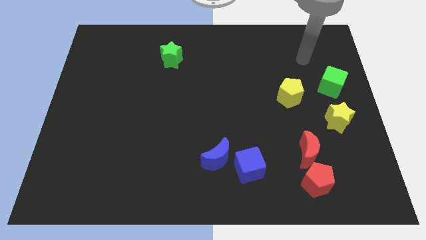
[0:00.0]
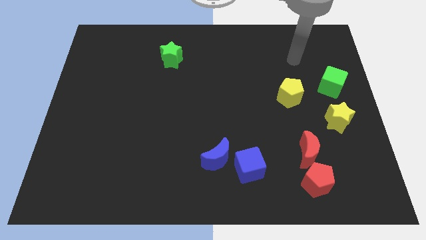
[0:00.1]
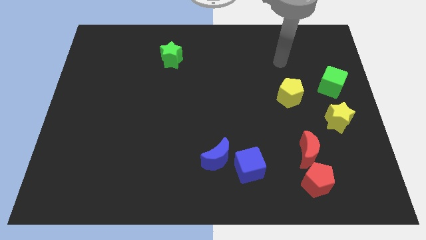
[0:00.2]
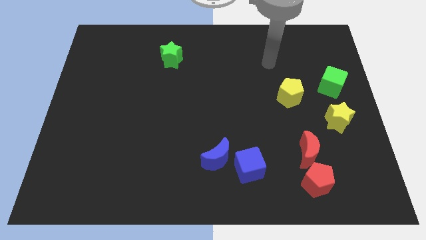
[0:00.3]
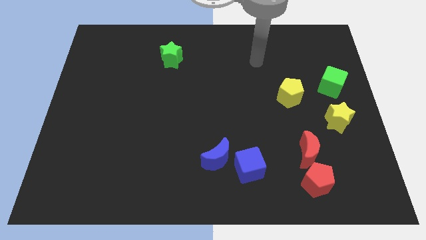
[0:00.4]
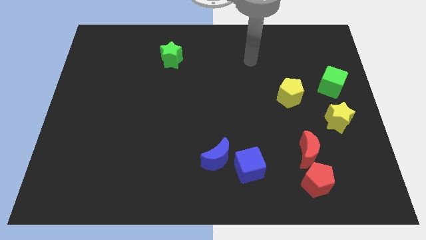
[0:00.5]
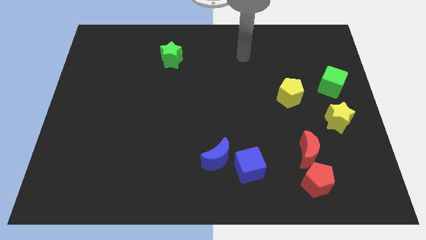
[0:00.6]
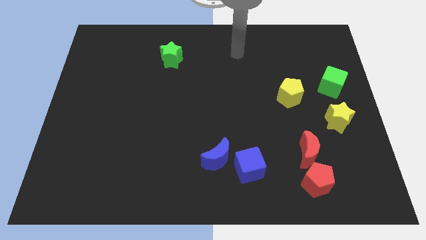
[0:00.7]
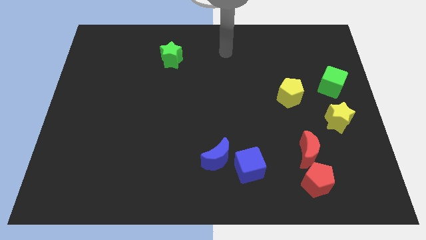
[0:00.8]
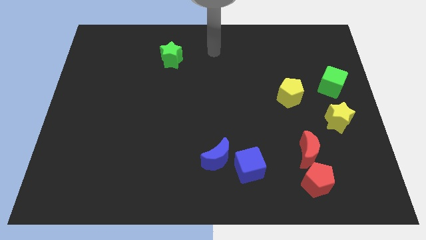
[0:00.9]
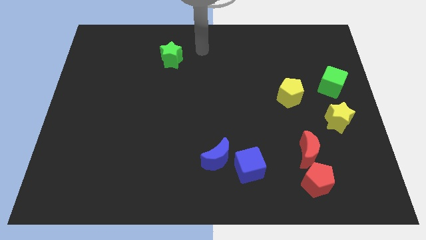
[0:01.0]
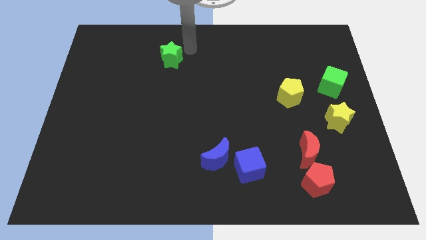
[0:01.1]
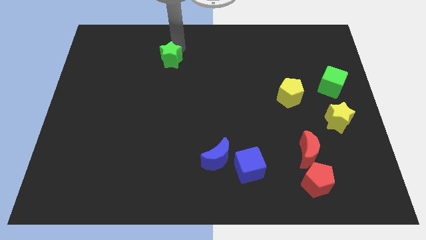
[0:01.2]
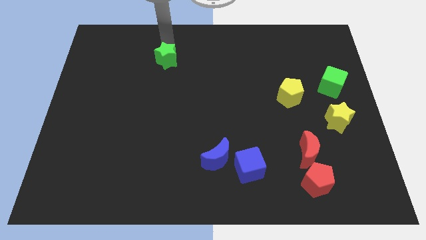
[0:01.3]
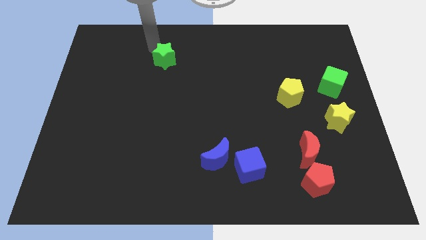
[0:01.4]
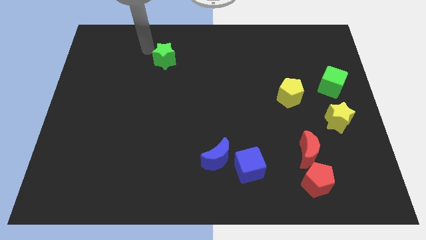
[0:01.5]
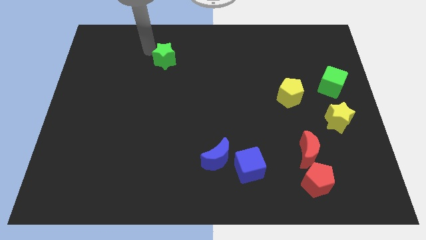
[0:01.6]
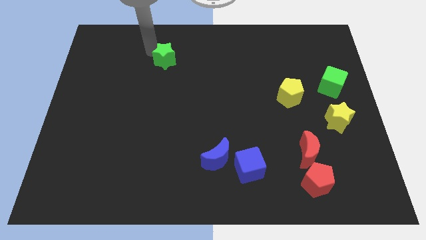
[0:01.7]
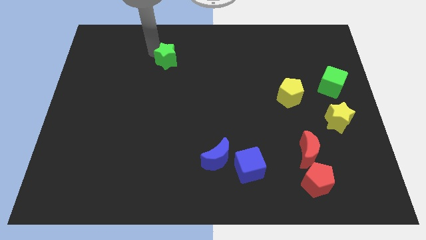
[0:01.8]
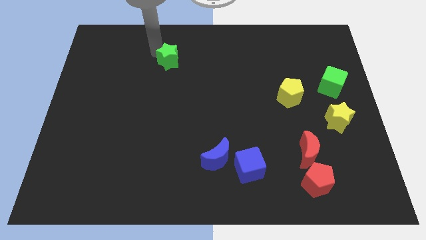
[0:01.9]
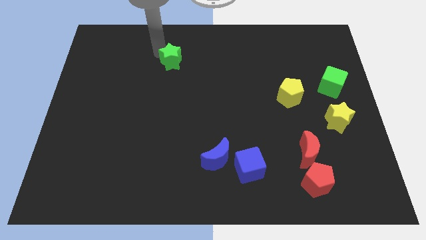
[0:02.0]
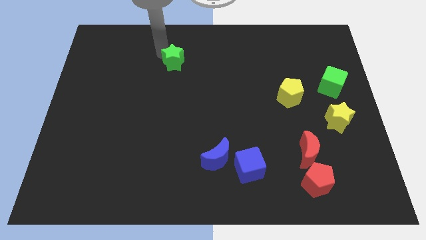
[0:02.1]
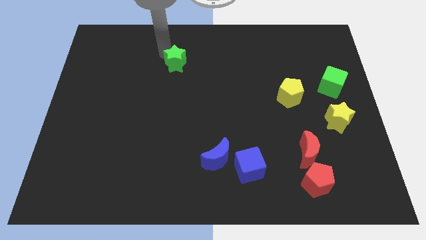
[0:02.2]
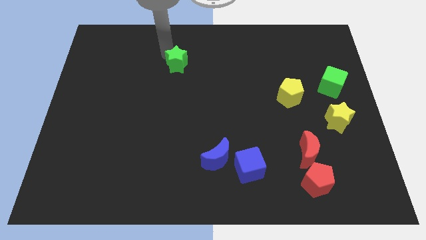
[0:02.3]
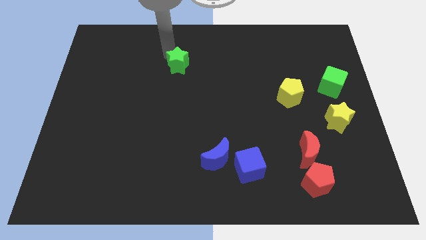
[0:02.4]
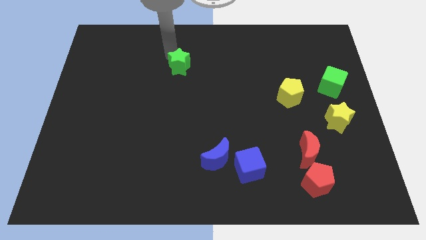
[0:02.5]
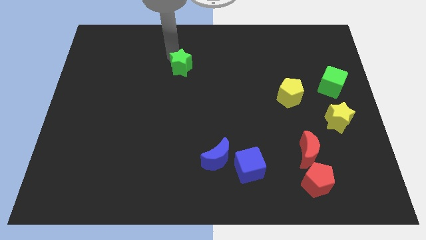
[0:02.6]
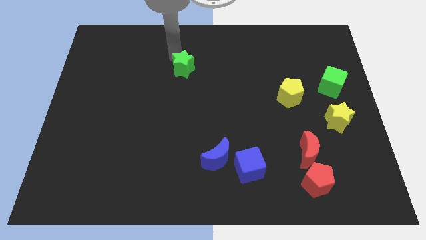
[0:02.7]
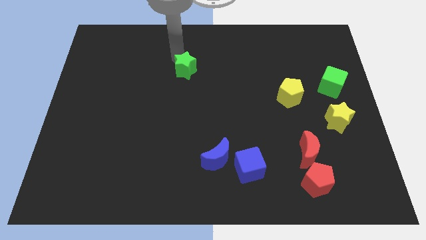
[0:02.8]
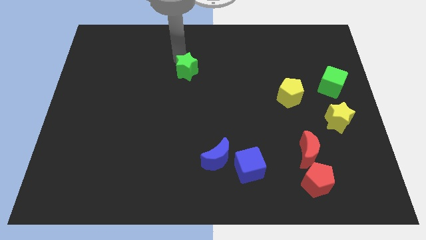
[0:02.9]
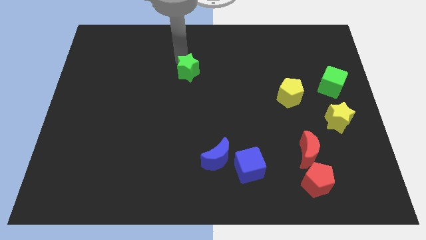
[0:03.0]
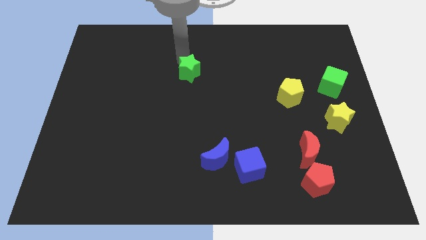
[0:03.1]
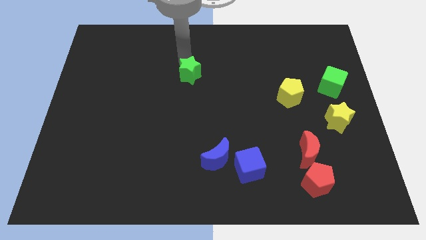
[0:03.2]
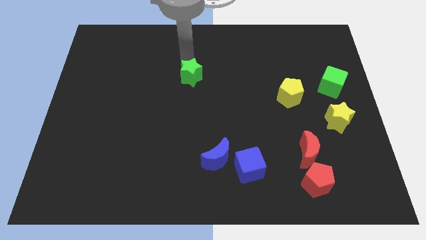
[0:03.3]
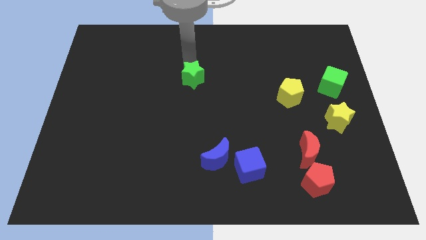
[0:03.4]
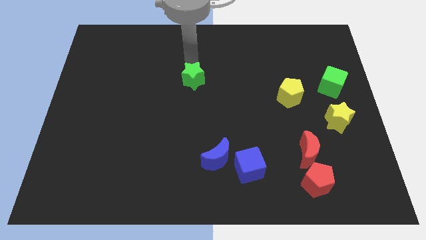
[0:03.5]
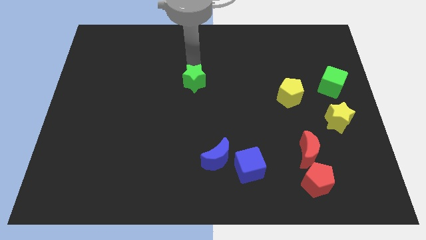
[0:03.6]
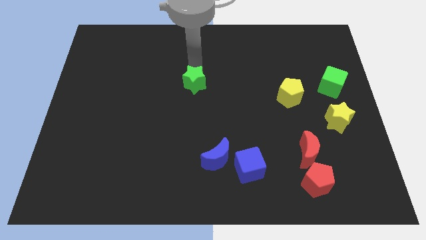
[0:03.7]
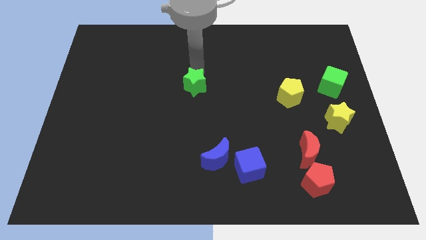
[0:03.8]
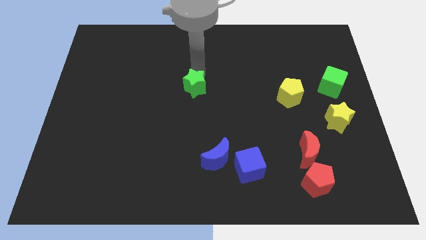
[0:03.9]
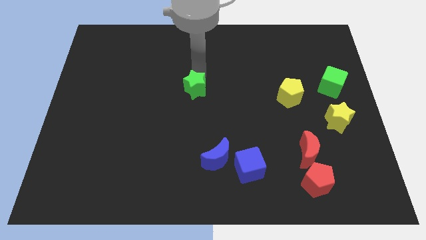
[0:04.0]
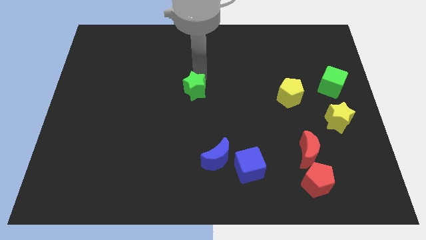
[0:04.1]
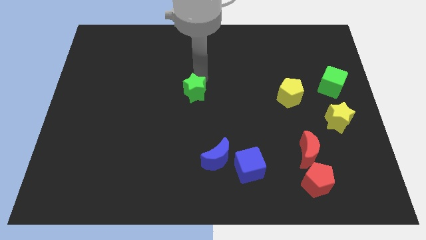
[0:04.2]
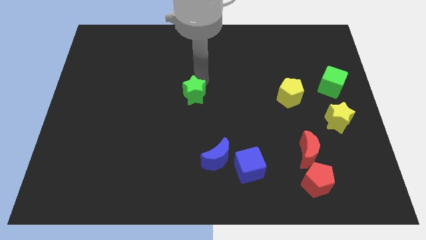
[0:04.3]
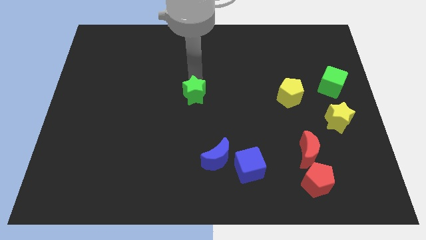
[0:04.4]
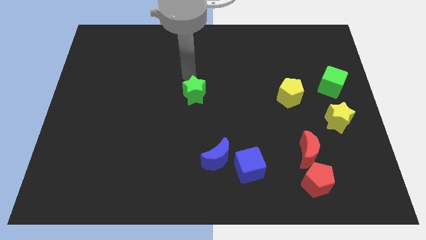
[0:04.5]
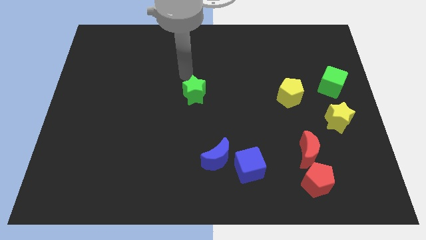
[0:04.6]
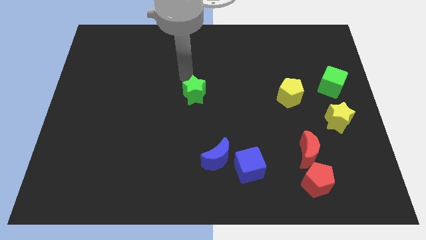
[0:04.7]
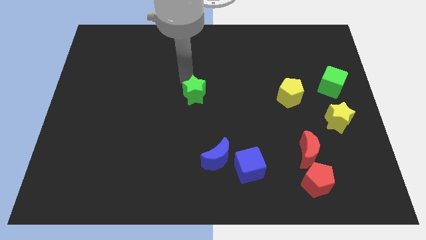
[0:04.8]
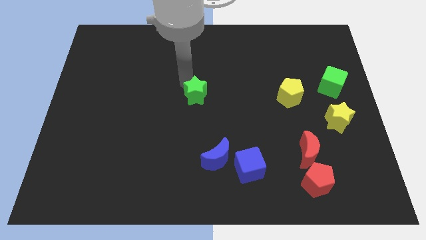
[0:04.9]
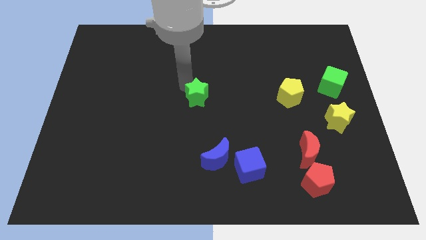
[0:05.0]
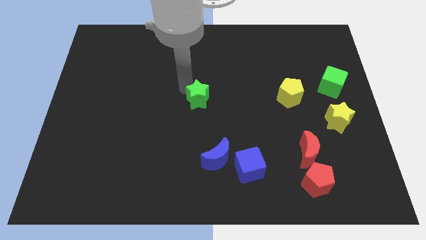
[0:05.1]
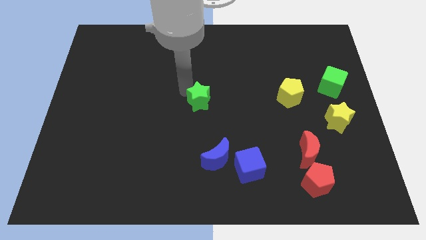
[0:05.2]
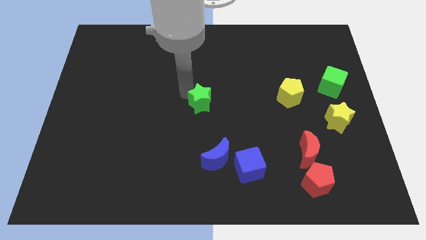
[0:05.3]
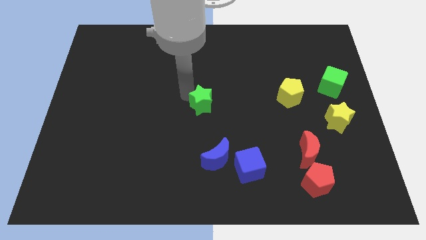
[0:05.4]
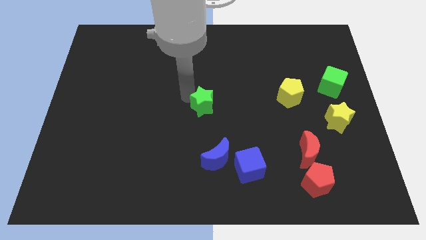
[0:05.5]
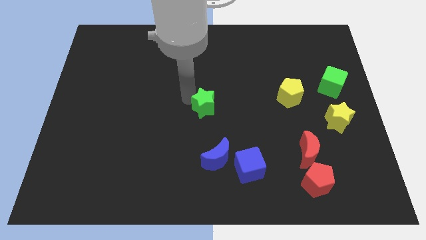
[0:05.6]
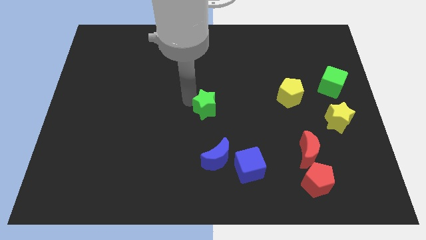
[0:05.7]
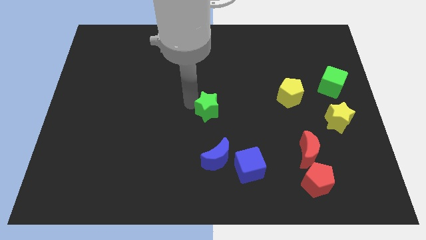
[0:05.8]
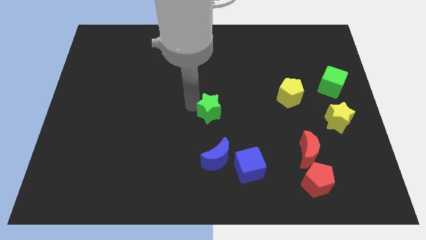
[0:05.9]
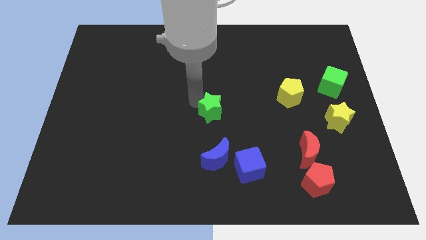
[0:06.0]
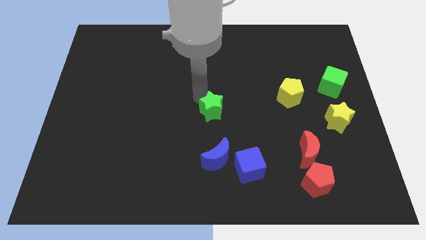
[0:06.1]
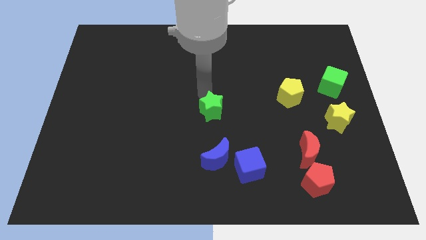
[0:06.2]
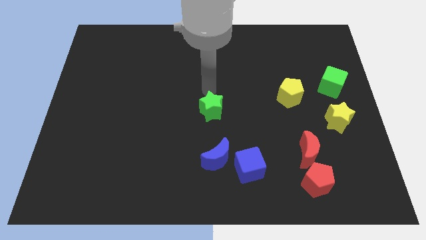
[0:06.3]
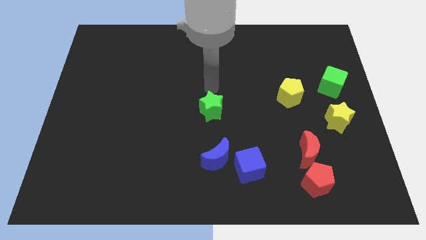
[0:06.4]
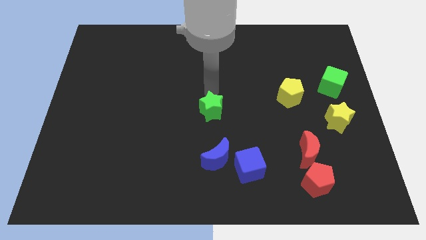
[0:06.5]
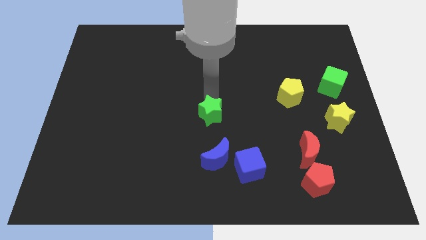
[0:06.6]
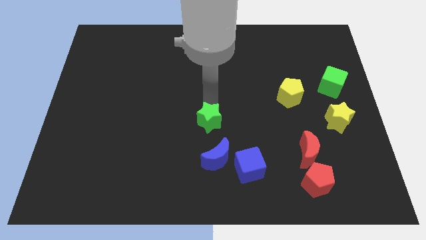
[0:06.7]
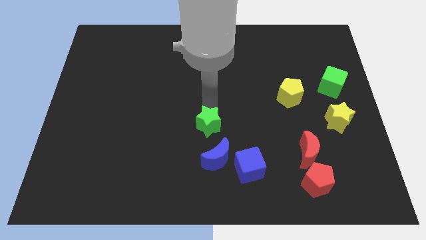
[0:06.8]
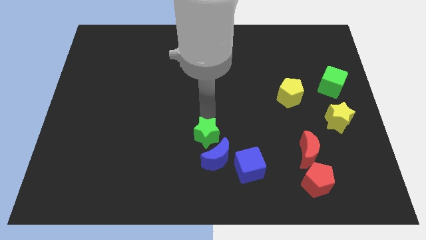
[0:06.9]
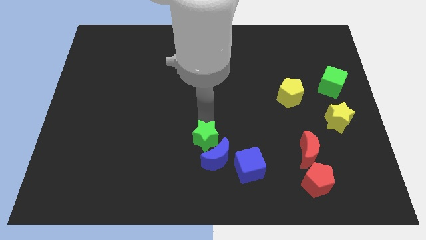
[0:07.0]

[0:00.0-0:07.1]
move the green star to the blue moon
